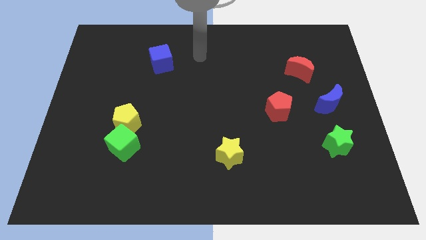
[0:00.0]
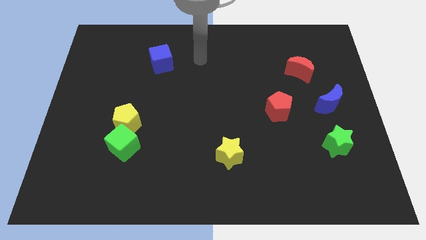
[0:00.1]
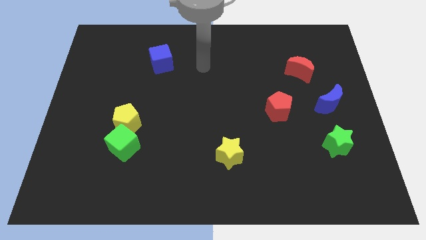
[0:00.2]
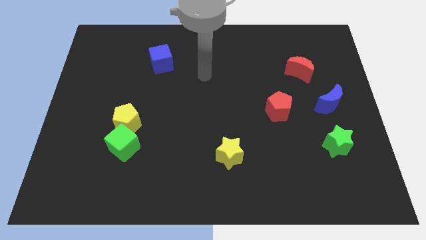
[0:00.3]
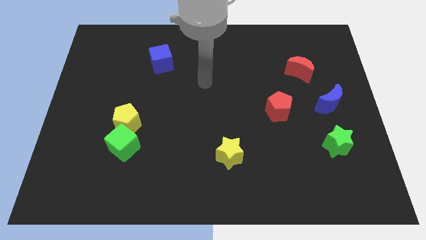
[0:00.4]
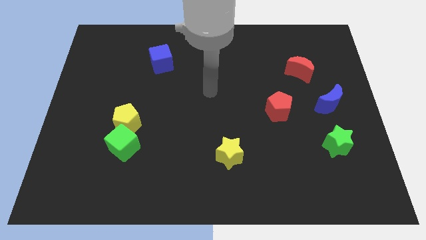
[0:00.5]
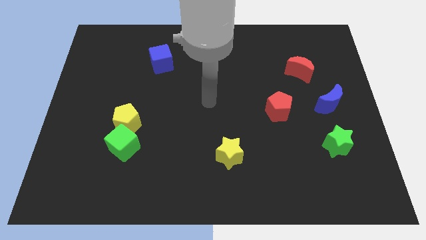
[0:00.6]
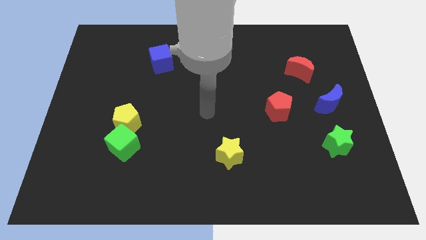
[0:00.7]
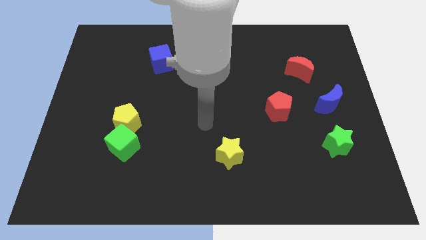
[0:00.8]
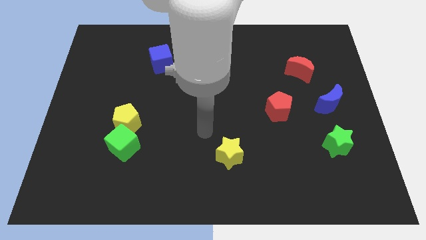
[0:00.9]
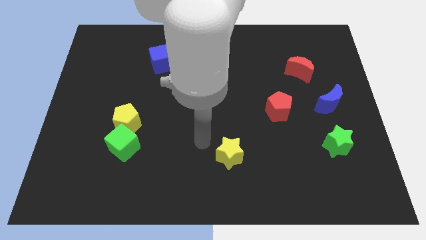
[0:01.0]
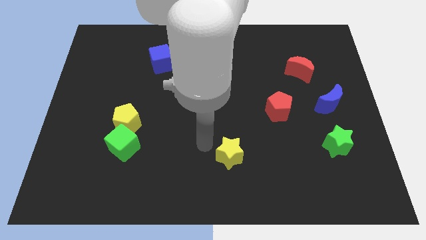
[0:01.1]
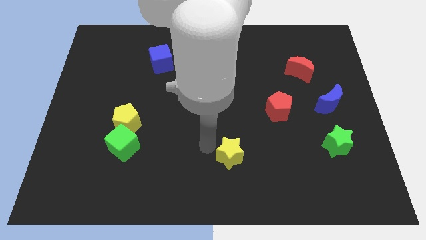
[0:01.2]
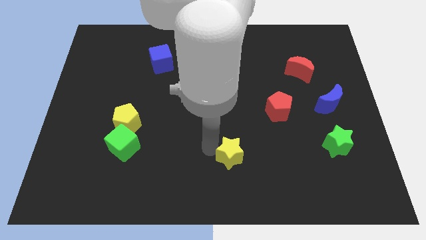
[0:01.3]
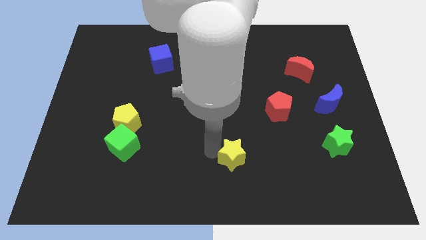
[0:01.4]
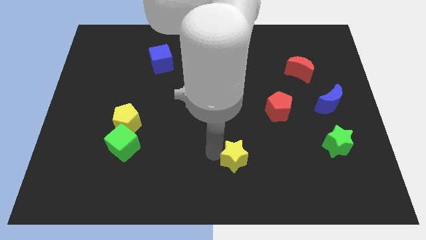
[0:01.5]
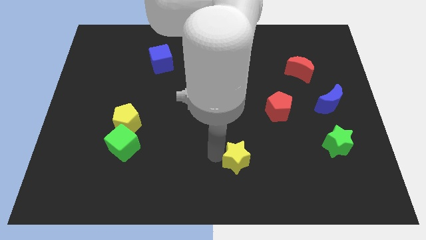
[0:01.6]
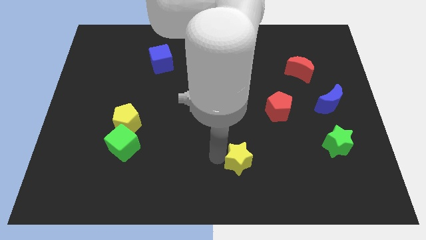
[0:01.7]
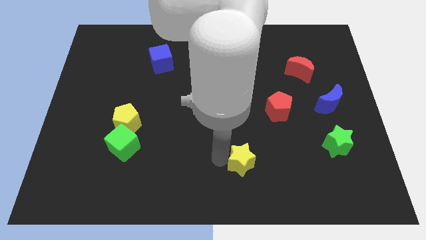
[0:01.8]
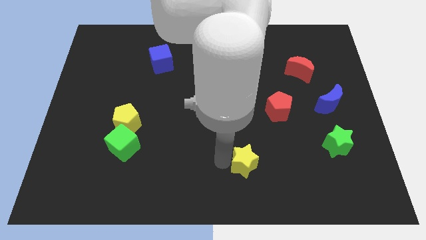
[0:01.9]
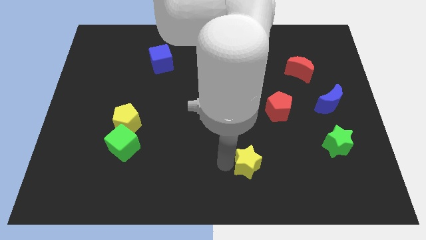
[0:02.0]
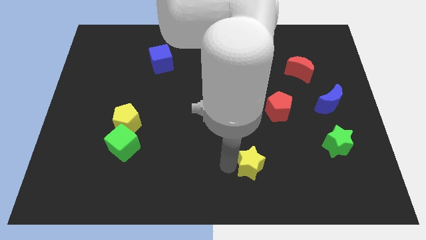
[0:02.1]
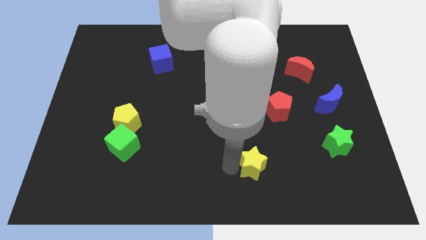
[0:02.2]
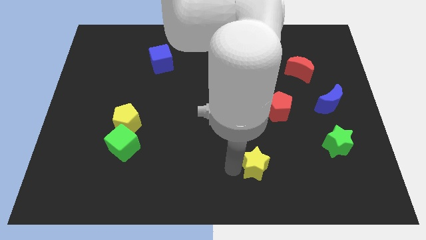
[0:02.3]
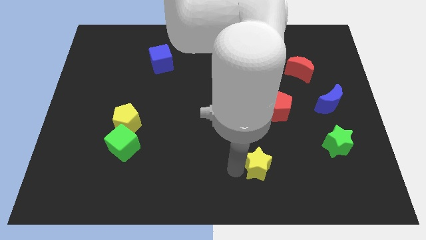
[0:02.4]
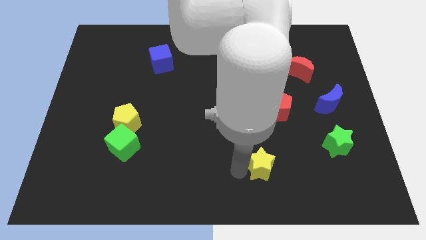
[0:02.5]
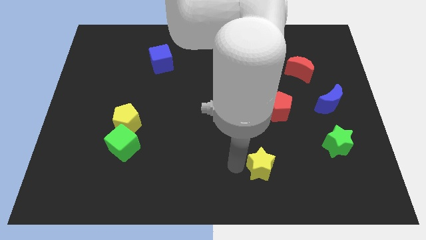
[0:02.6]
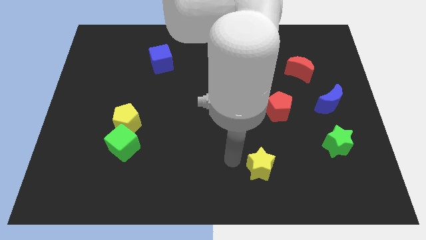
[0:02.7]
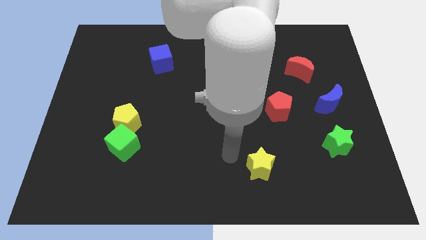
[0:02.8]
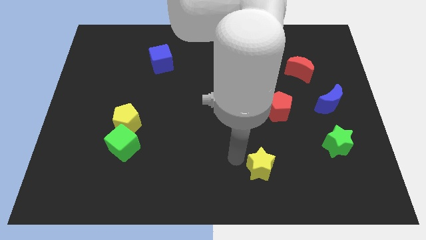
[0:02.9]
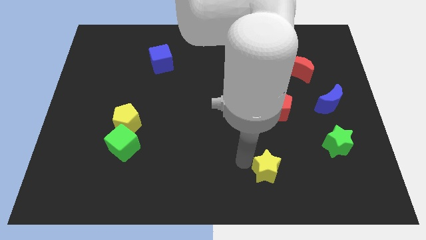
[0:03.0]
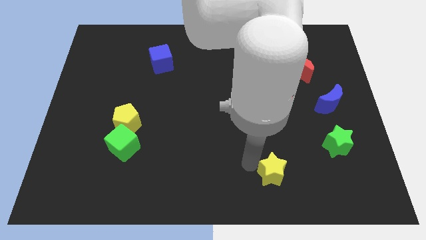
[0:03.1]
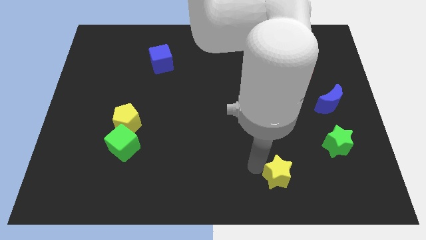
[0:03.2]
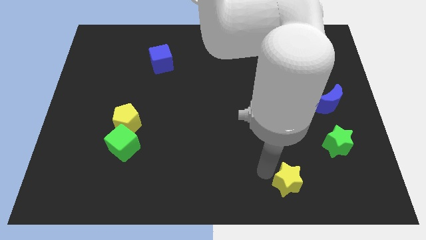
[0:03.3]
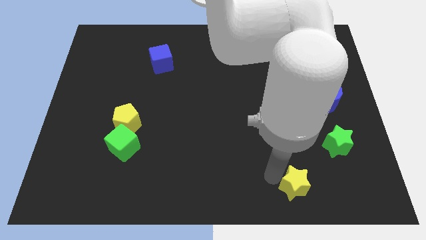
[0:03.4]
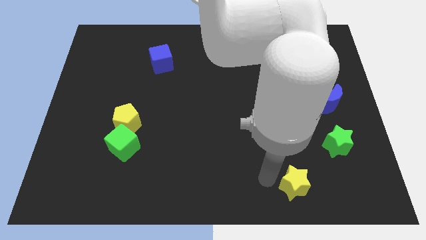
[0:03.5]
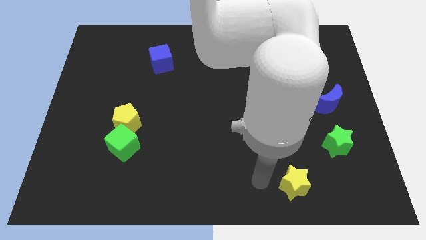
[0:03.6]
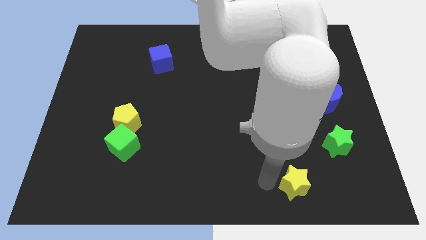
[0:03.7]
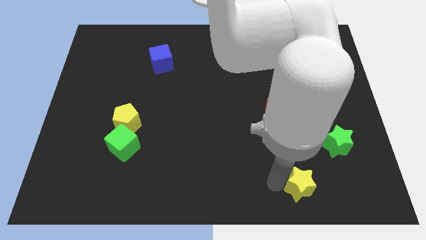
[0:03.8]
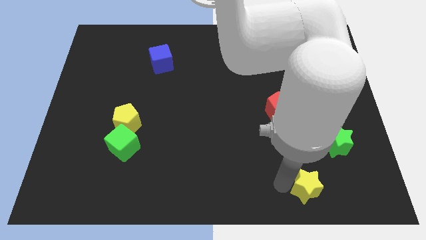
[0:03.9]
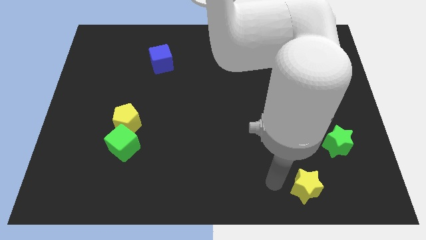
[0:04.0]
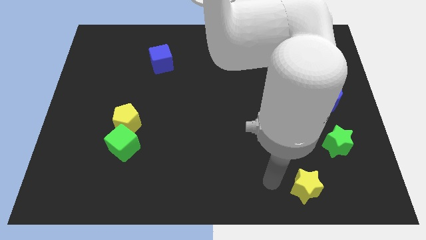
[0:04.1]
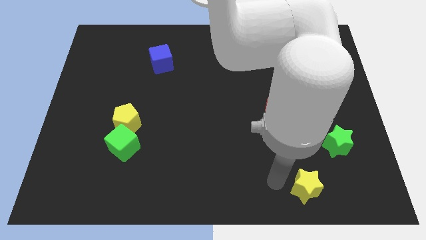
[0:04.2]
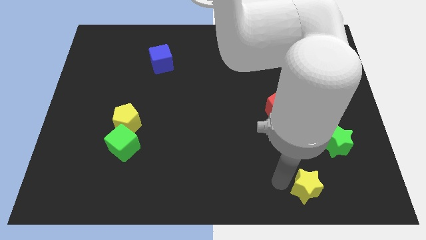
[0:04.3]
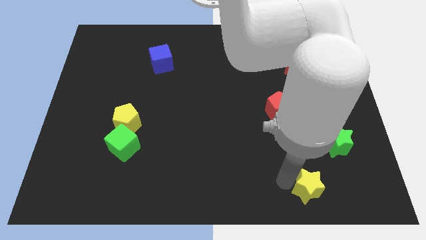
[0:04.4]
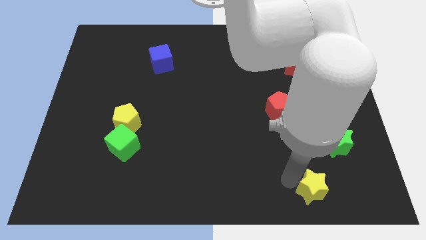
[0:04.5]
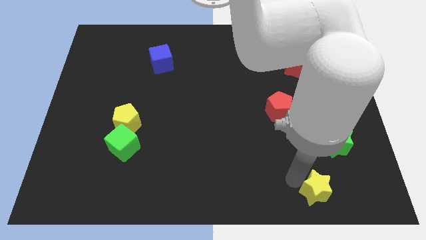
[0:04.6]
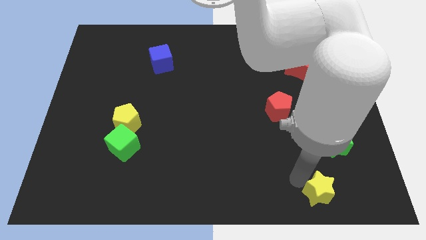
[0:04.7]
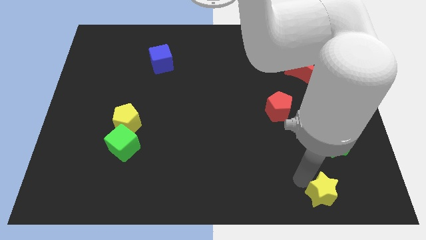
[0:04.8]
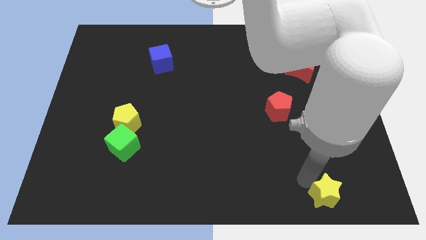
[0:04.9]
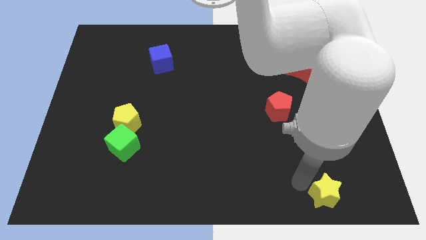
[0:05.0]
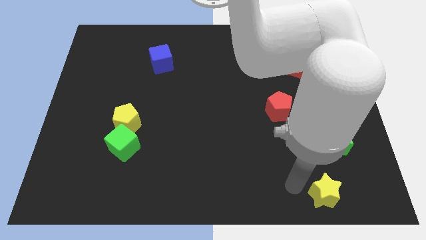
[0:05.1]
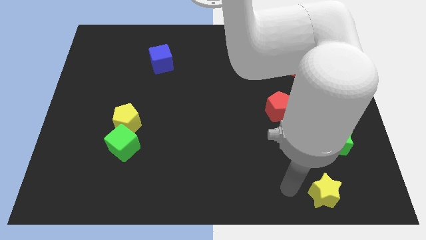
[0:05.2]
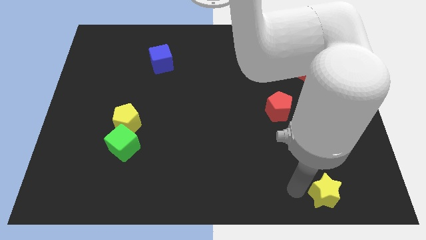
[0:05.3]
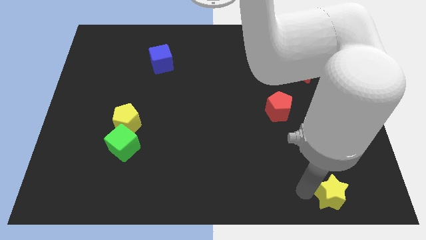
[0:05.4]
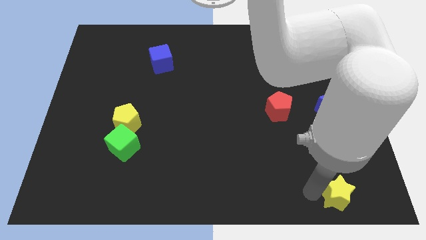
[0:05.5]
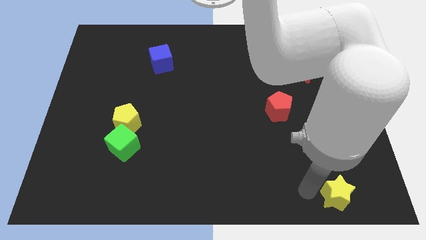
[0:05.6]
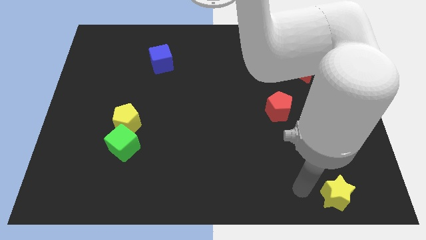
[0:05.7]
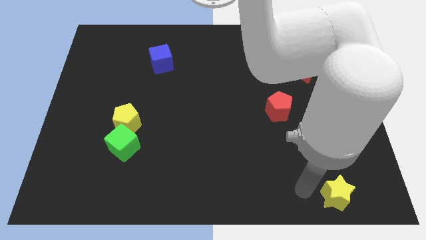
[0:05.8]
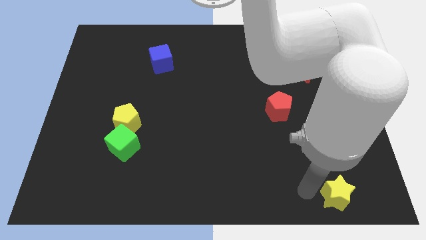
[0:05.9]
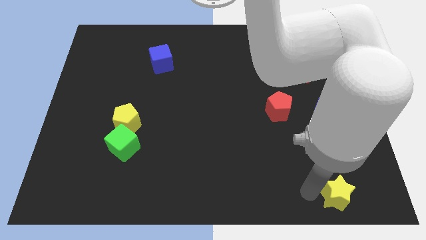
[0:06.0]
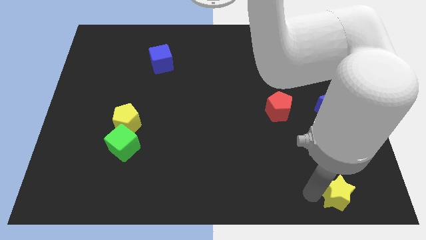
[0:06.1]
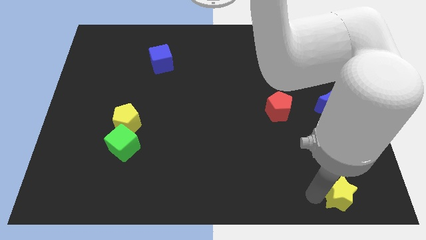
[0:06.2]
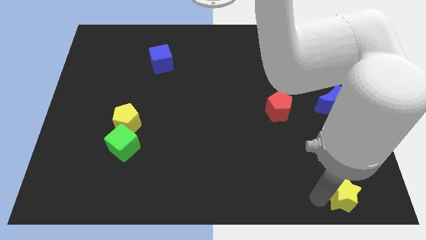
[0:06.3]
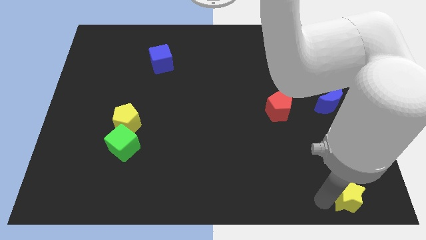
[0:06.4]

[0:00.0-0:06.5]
push the yellow star to the bottom right

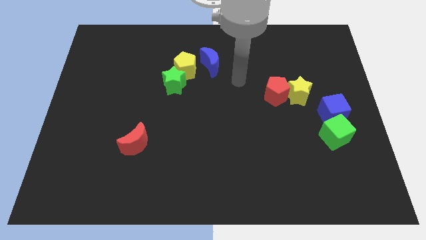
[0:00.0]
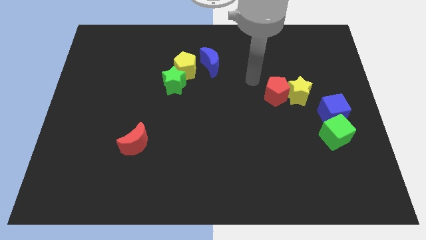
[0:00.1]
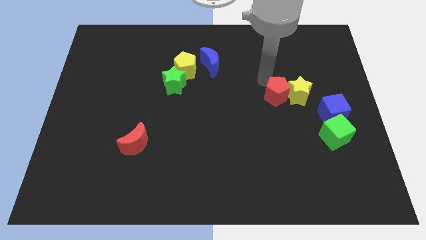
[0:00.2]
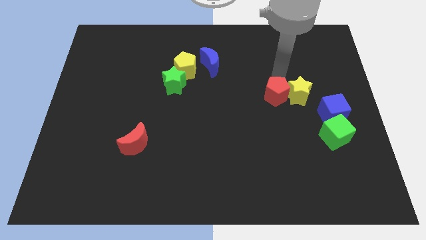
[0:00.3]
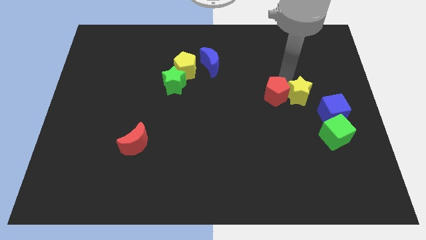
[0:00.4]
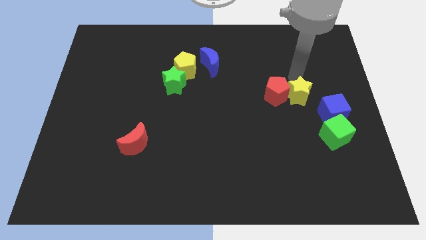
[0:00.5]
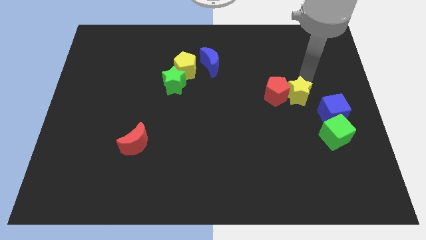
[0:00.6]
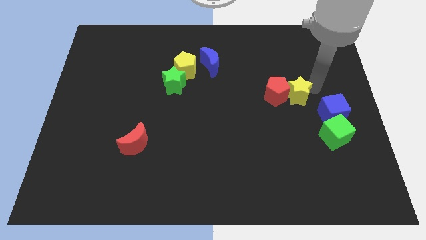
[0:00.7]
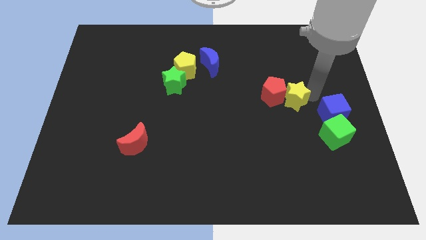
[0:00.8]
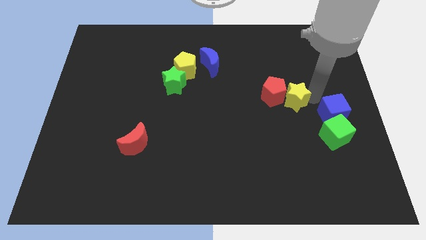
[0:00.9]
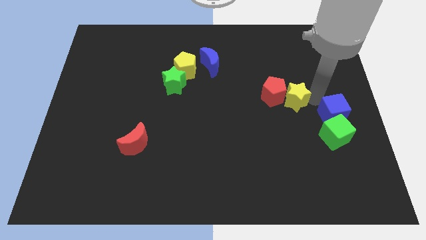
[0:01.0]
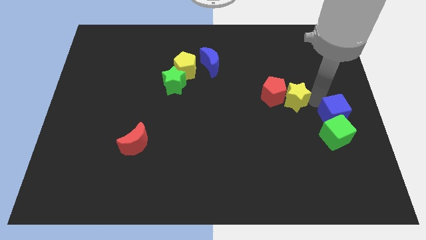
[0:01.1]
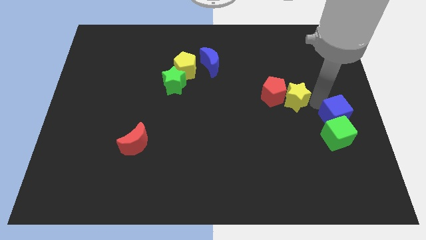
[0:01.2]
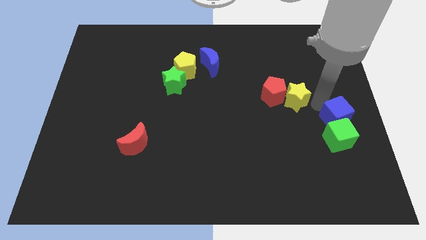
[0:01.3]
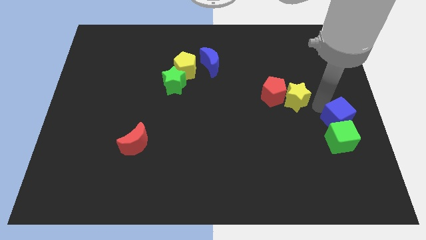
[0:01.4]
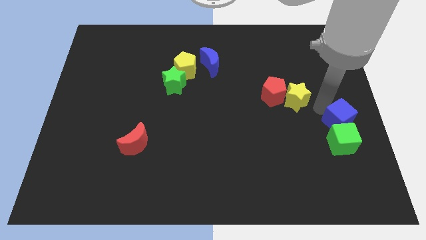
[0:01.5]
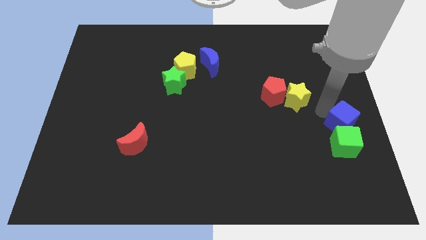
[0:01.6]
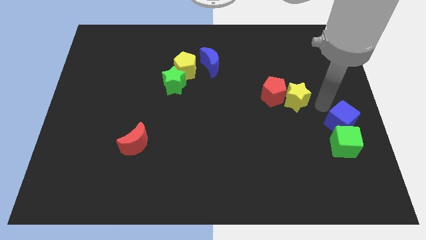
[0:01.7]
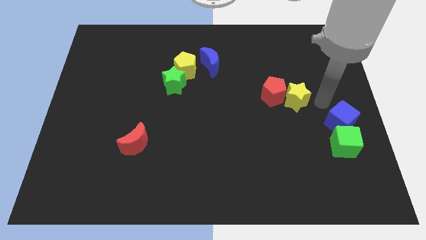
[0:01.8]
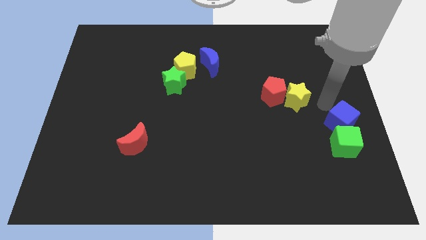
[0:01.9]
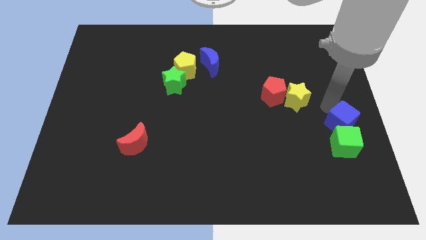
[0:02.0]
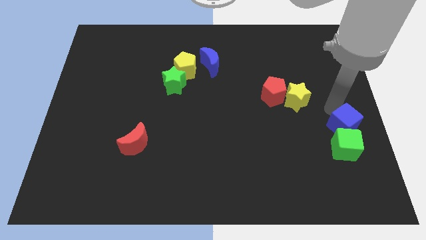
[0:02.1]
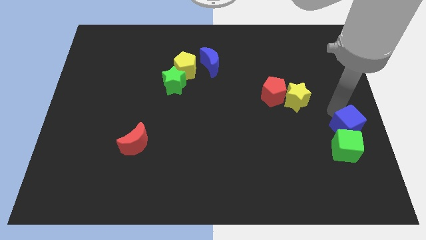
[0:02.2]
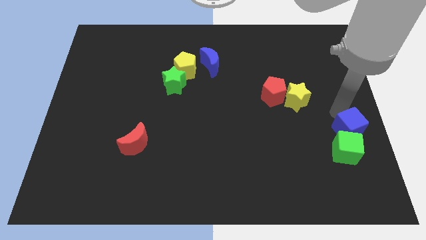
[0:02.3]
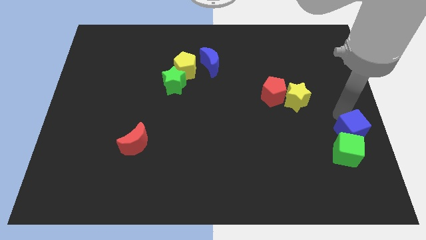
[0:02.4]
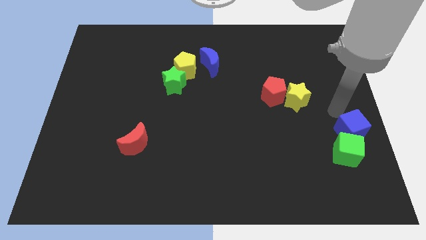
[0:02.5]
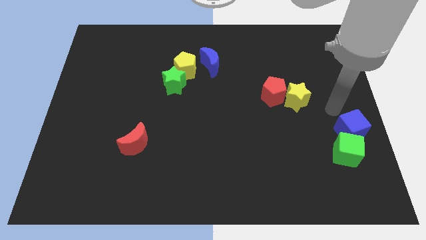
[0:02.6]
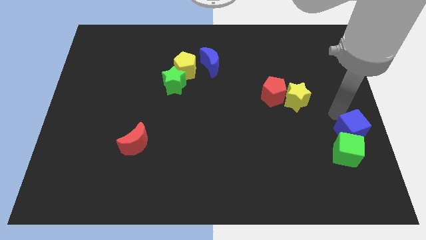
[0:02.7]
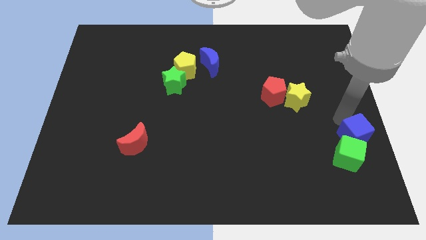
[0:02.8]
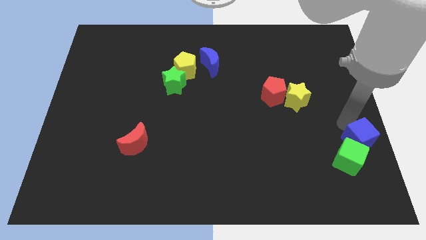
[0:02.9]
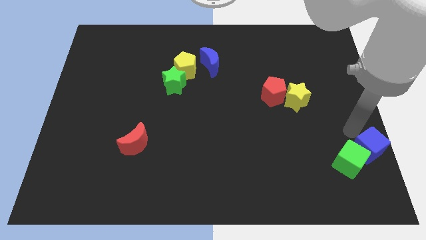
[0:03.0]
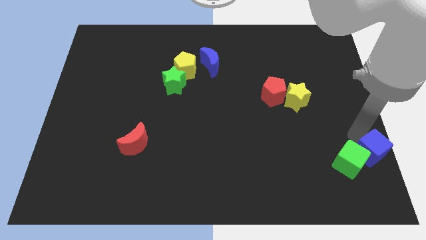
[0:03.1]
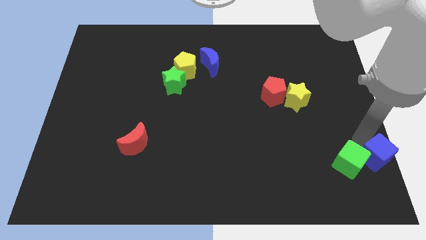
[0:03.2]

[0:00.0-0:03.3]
push the blue cube to the bottom right corner
